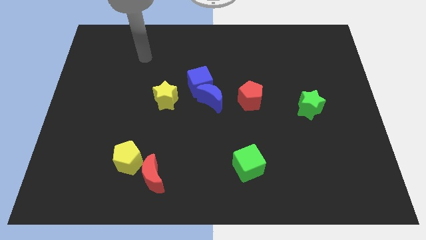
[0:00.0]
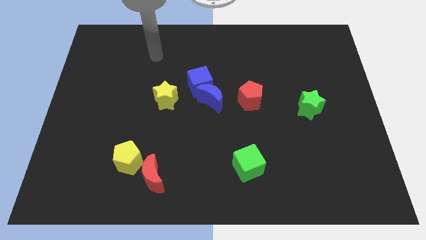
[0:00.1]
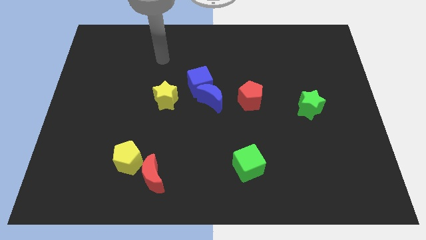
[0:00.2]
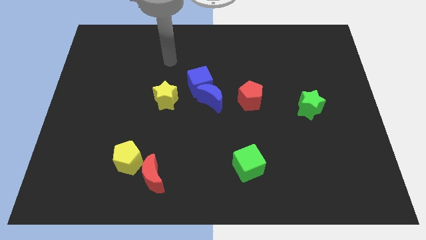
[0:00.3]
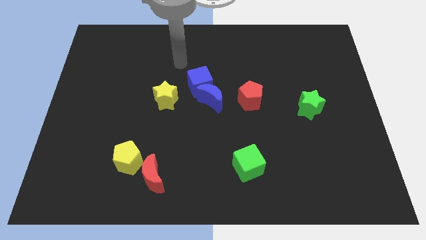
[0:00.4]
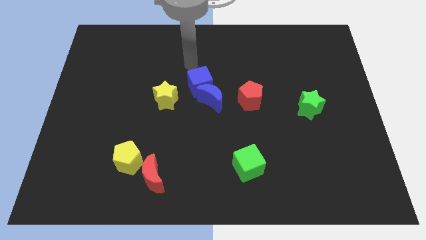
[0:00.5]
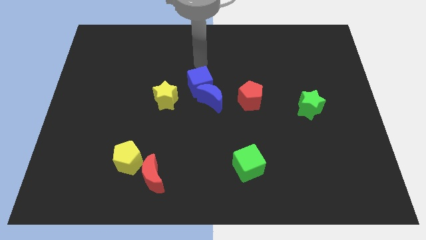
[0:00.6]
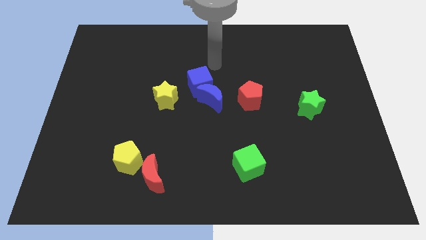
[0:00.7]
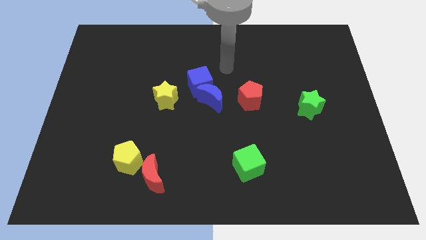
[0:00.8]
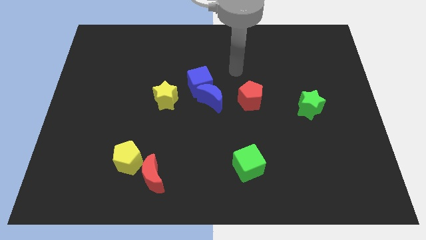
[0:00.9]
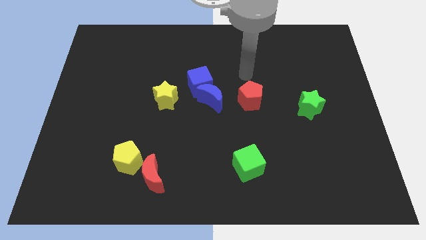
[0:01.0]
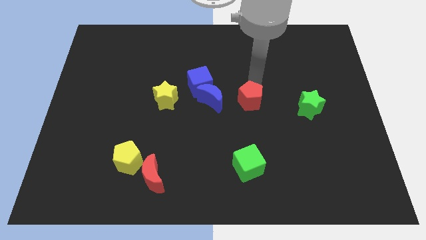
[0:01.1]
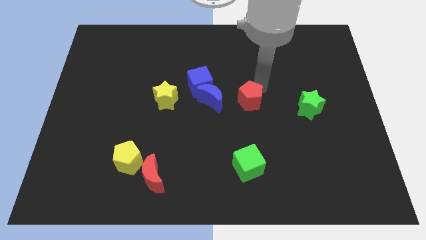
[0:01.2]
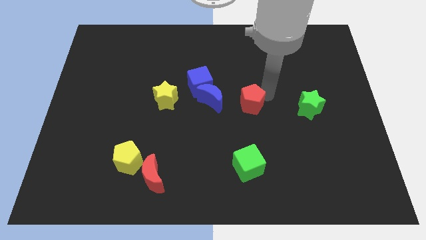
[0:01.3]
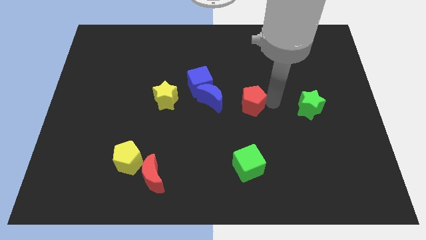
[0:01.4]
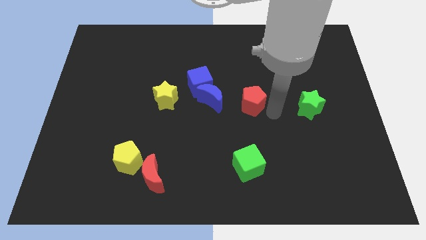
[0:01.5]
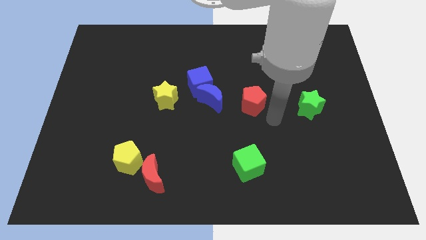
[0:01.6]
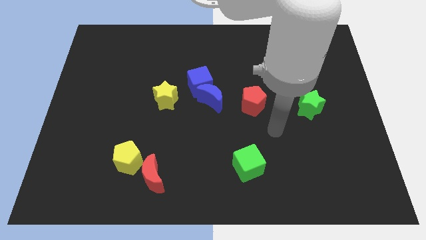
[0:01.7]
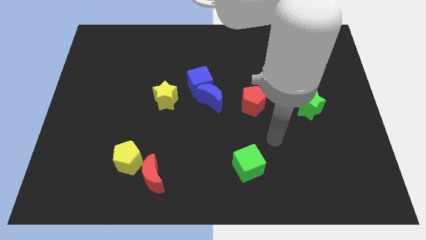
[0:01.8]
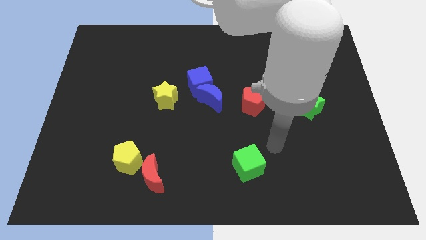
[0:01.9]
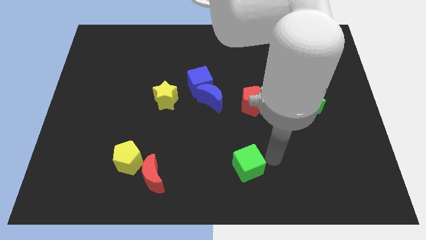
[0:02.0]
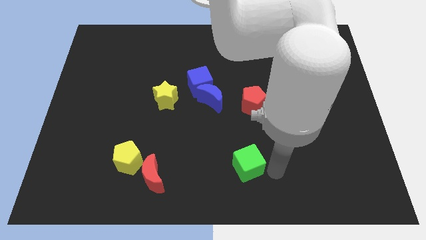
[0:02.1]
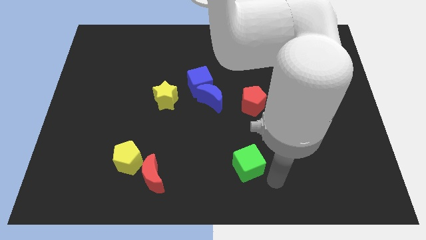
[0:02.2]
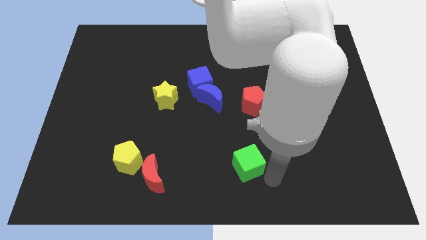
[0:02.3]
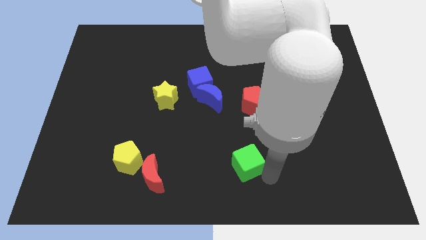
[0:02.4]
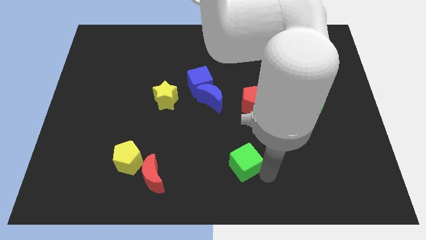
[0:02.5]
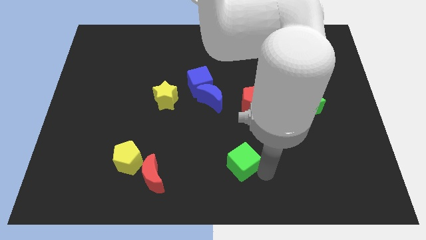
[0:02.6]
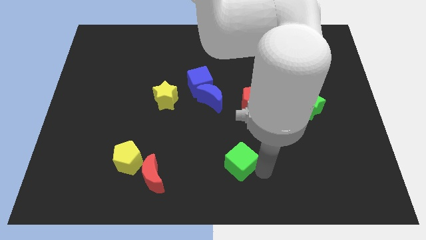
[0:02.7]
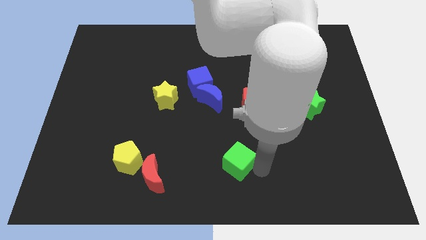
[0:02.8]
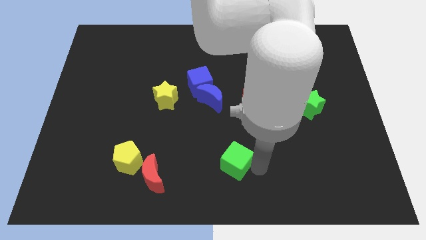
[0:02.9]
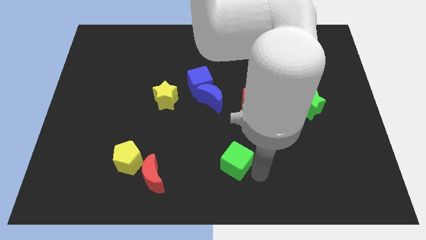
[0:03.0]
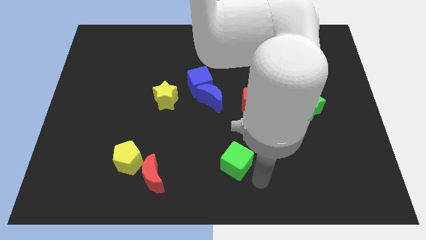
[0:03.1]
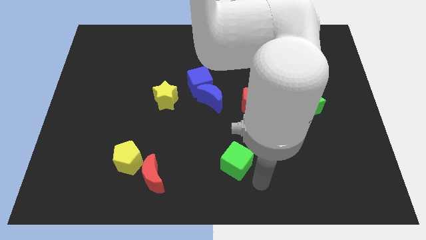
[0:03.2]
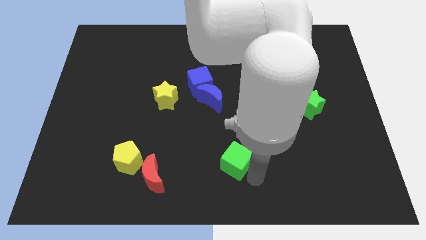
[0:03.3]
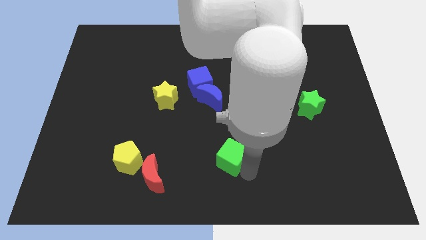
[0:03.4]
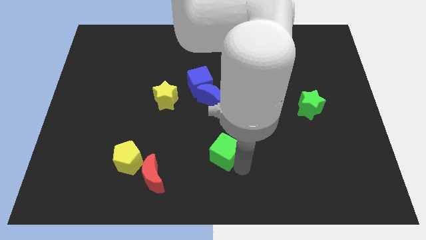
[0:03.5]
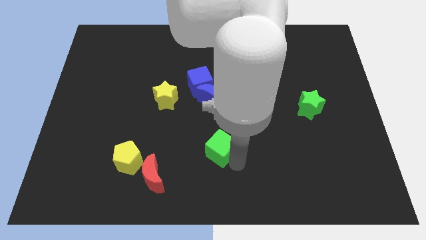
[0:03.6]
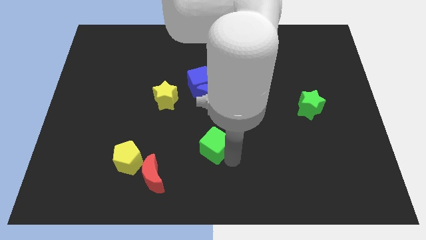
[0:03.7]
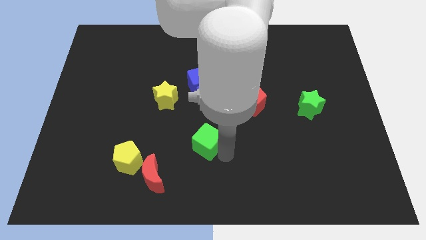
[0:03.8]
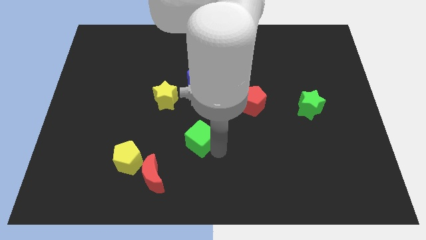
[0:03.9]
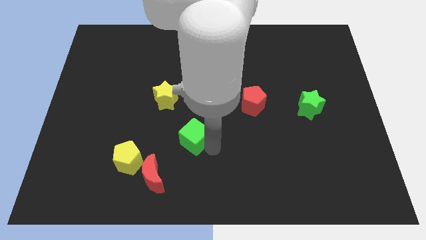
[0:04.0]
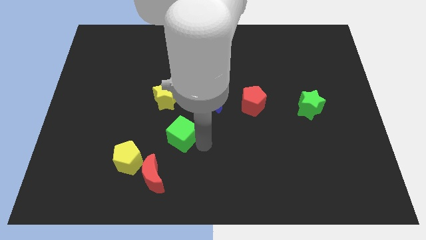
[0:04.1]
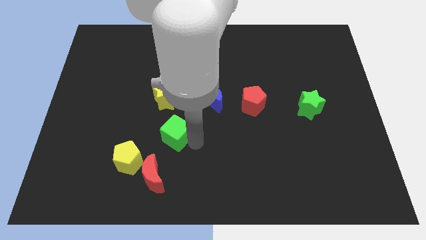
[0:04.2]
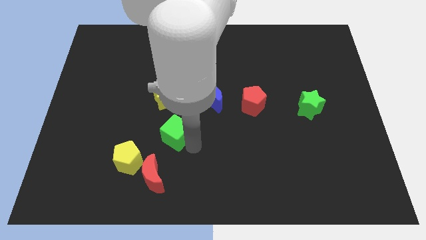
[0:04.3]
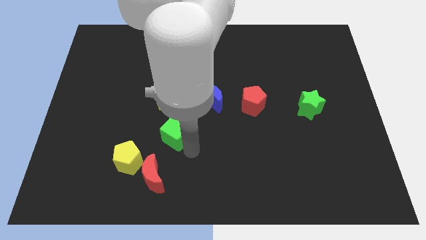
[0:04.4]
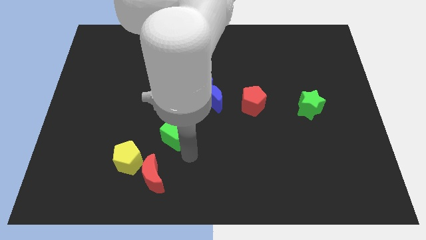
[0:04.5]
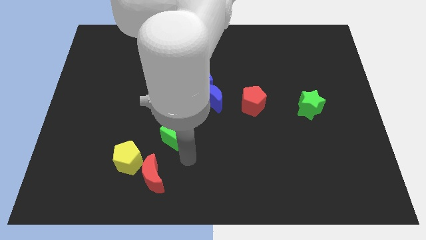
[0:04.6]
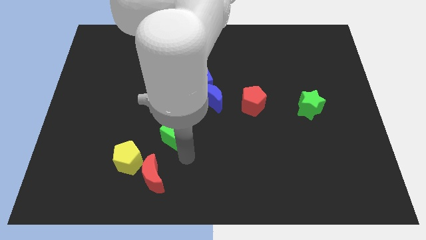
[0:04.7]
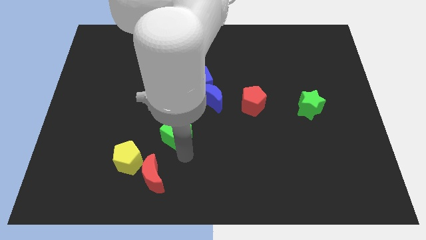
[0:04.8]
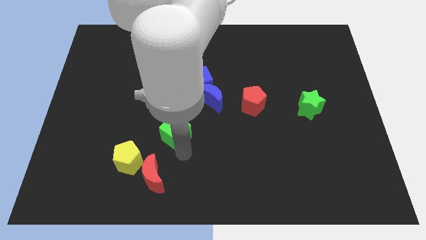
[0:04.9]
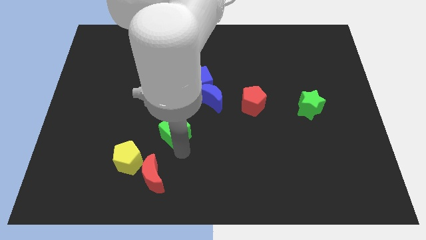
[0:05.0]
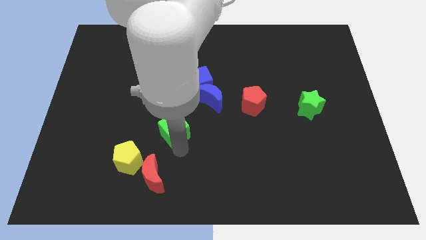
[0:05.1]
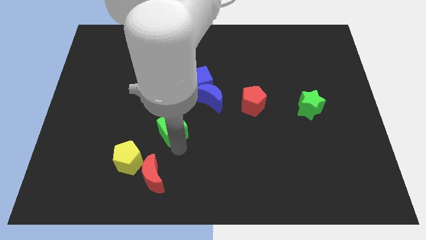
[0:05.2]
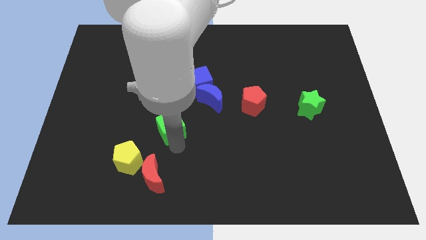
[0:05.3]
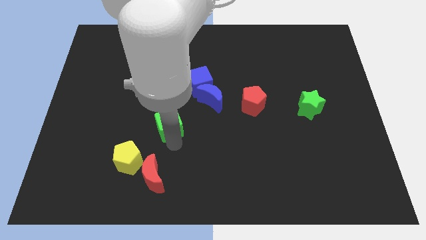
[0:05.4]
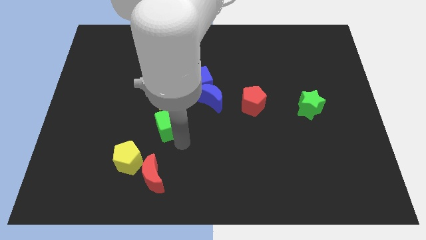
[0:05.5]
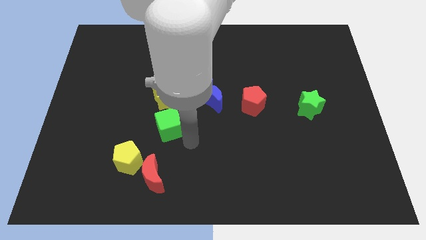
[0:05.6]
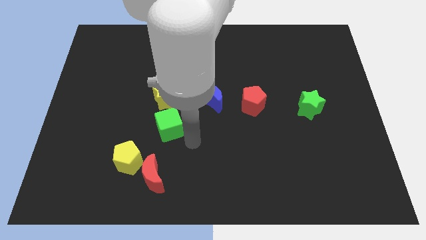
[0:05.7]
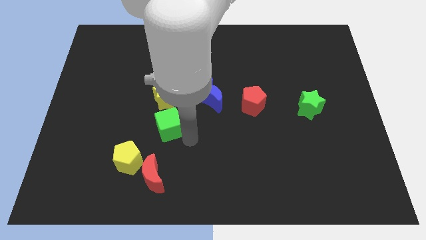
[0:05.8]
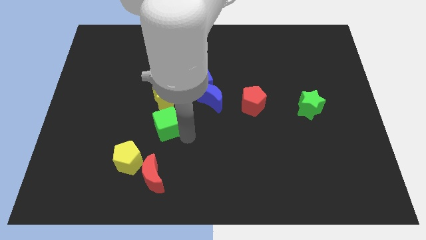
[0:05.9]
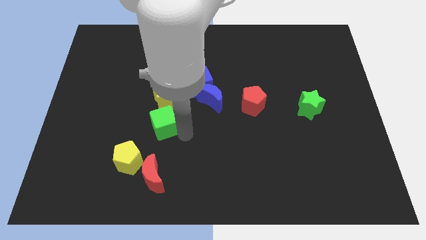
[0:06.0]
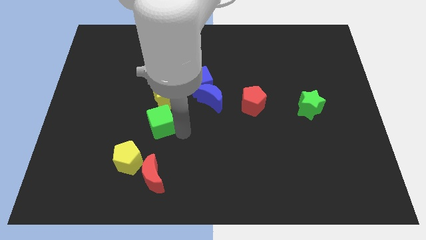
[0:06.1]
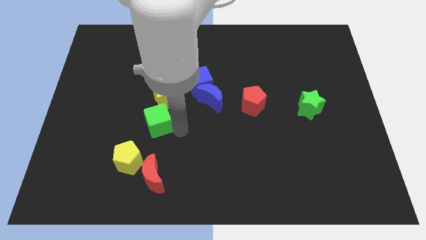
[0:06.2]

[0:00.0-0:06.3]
move the green cube up and then to the left

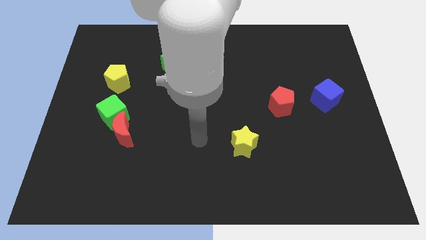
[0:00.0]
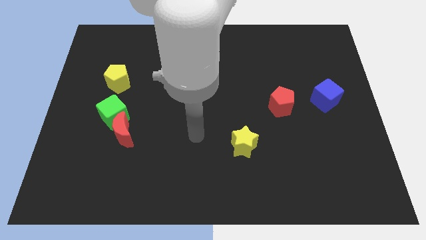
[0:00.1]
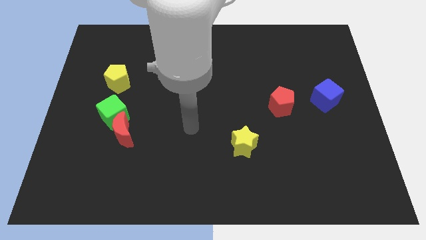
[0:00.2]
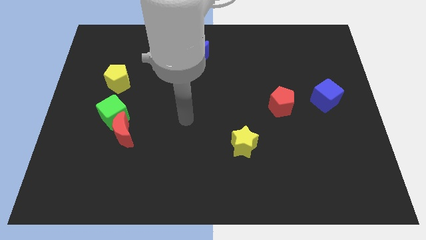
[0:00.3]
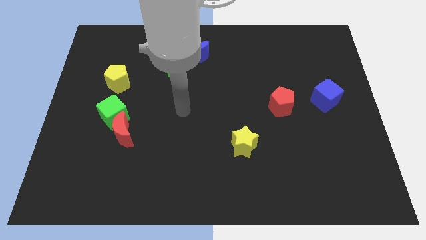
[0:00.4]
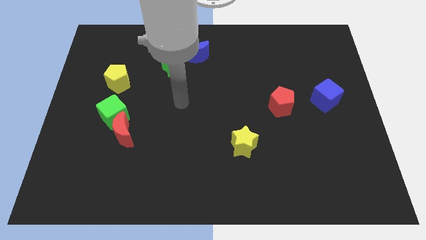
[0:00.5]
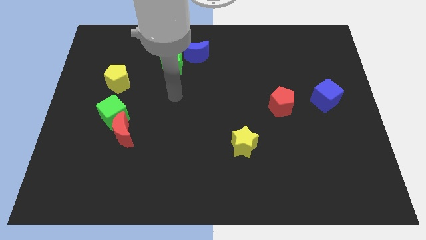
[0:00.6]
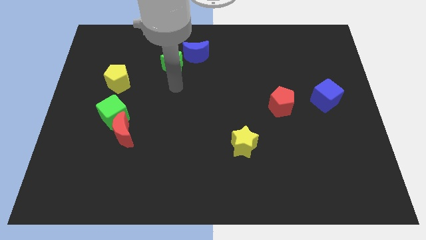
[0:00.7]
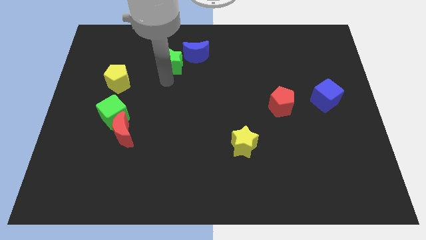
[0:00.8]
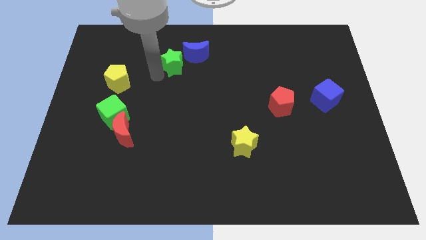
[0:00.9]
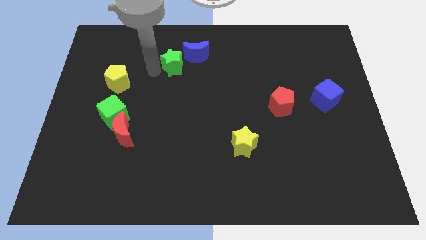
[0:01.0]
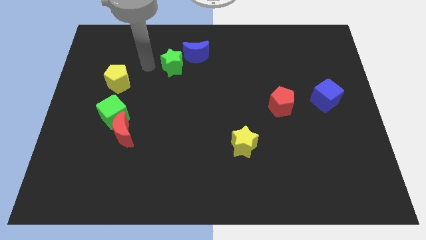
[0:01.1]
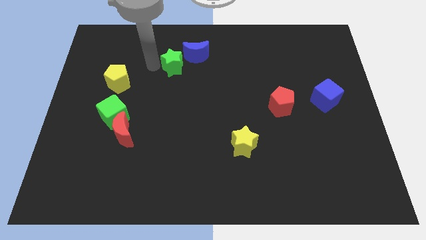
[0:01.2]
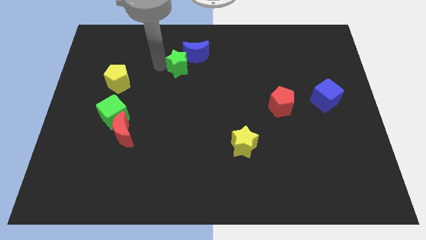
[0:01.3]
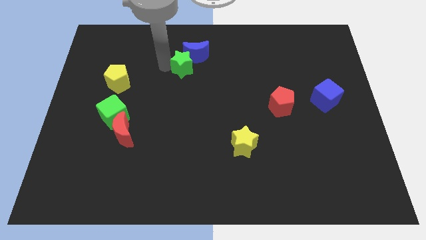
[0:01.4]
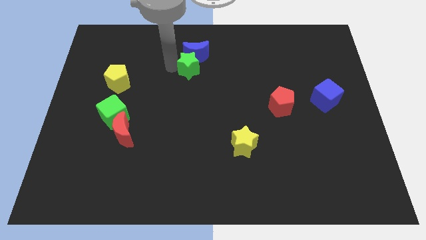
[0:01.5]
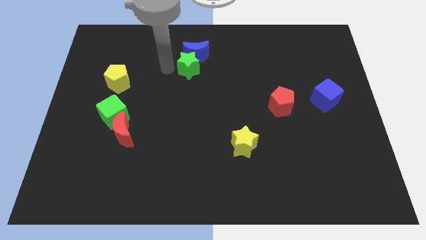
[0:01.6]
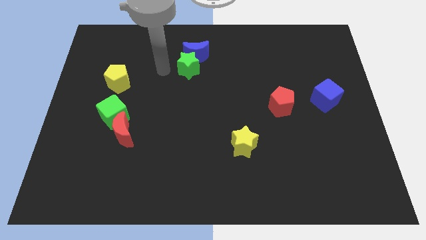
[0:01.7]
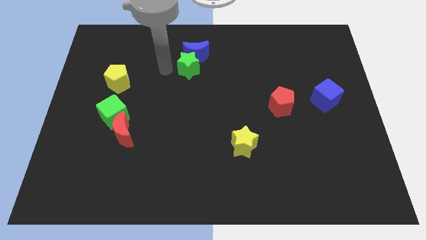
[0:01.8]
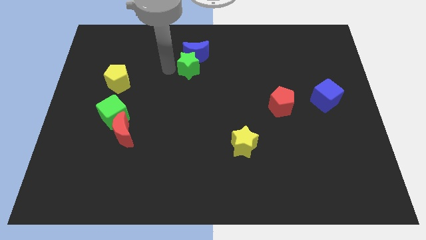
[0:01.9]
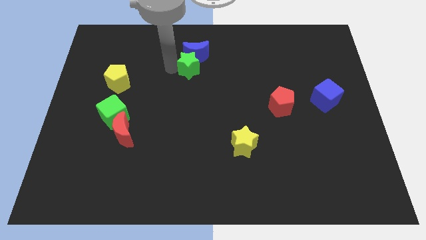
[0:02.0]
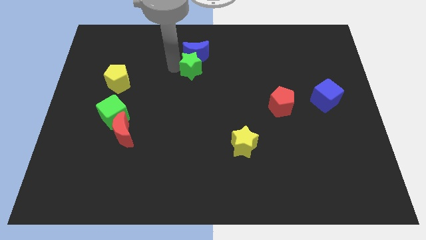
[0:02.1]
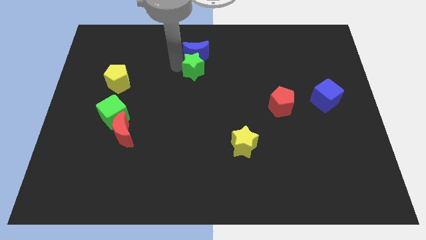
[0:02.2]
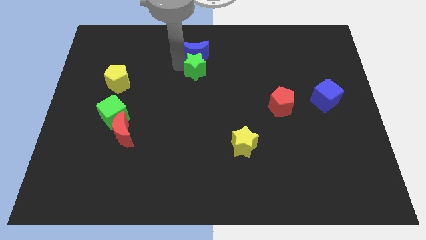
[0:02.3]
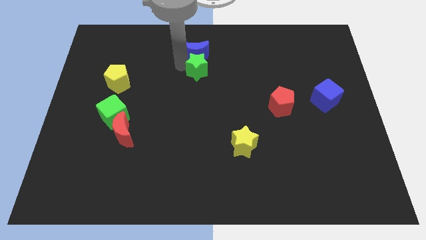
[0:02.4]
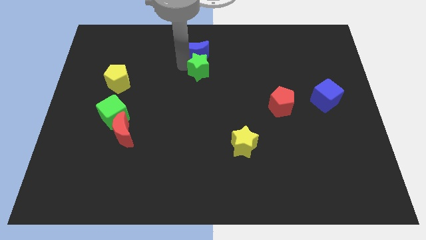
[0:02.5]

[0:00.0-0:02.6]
slide the green star slightly right
